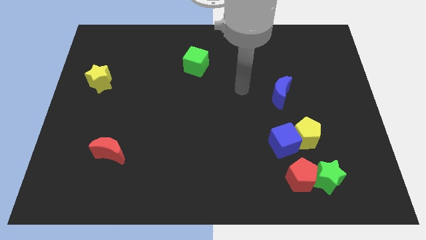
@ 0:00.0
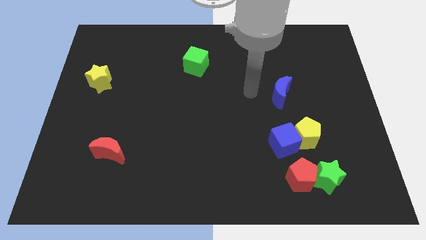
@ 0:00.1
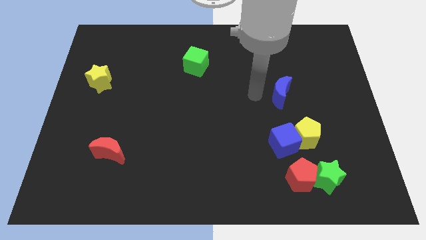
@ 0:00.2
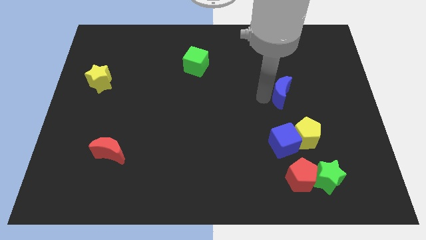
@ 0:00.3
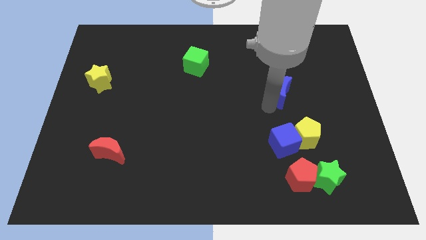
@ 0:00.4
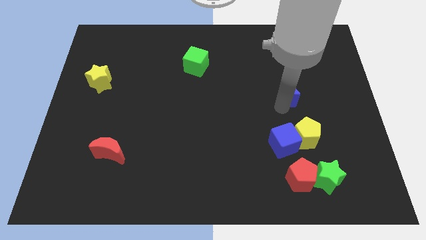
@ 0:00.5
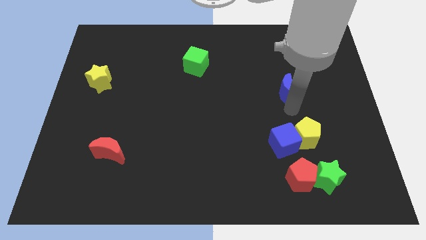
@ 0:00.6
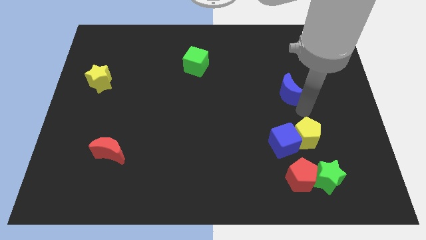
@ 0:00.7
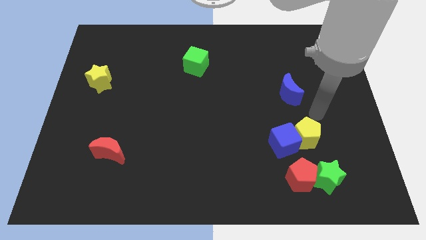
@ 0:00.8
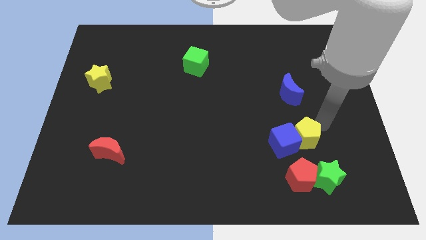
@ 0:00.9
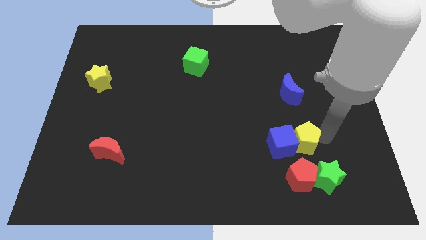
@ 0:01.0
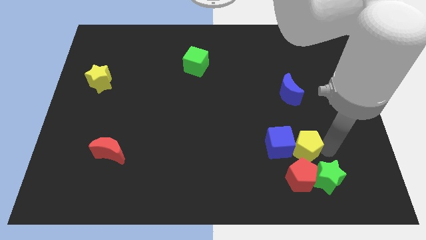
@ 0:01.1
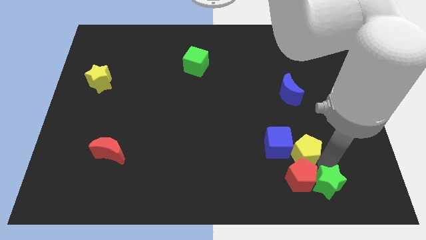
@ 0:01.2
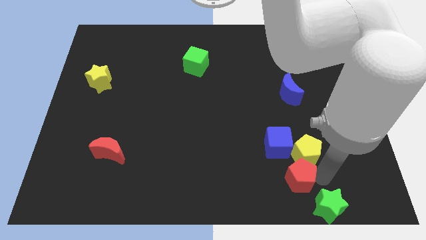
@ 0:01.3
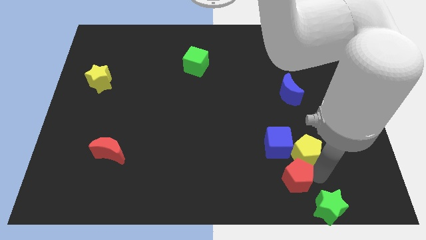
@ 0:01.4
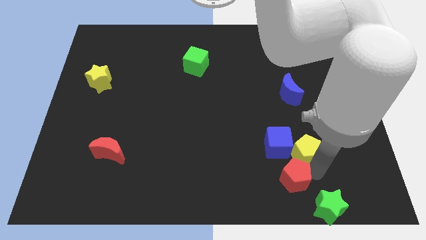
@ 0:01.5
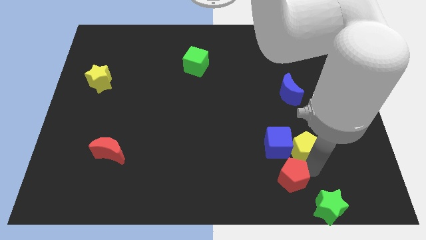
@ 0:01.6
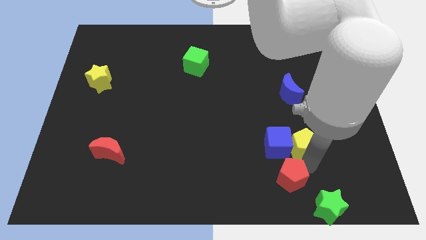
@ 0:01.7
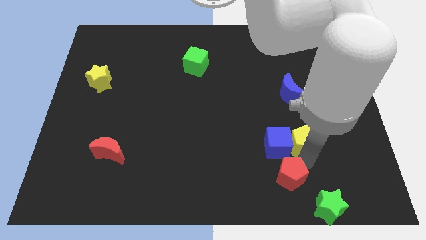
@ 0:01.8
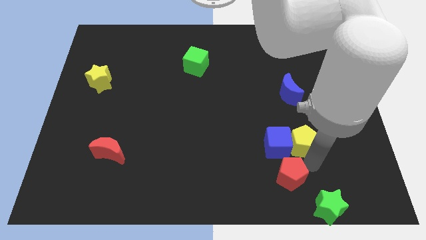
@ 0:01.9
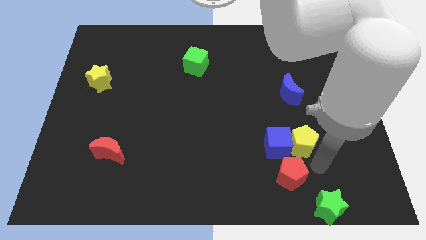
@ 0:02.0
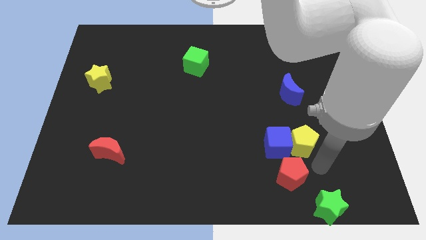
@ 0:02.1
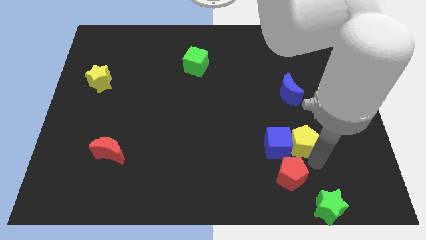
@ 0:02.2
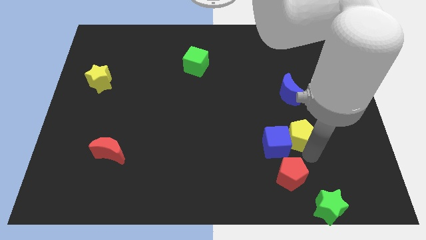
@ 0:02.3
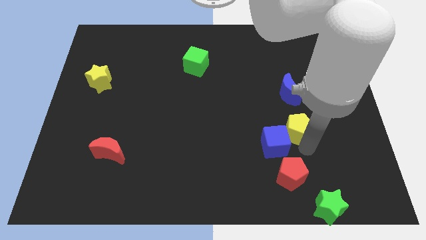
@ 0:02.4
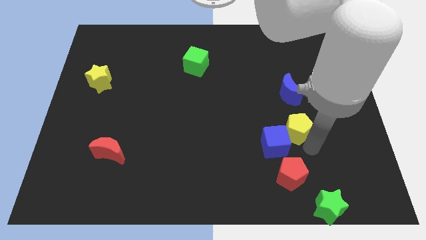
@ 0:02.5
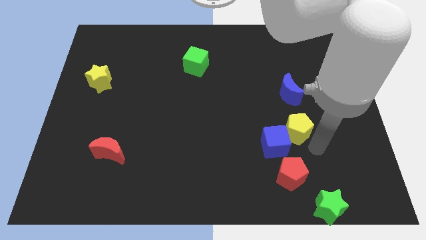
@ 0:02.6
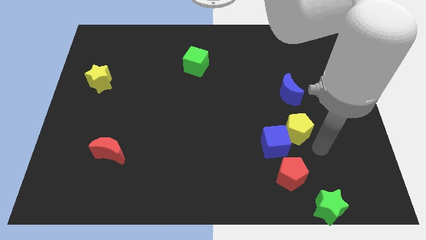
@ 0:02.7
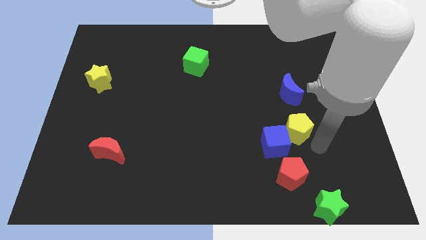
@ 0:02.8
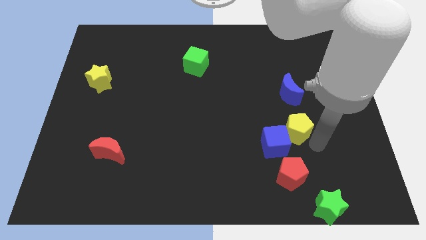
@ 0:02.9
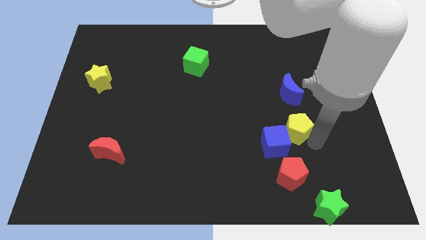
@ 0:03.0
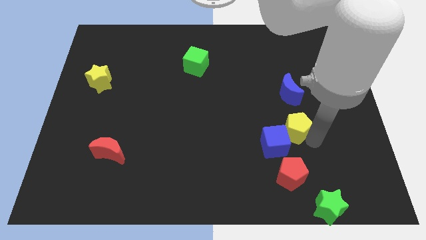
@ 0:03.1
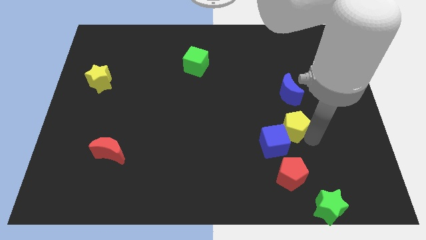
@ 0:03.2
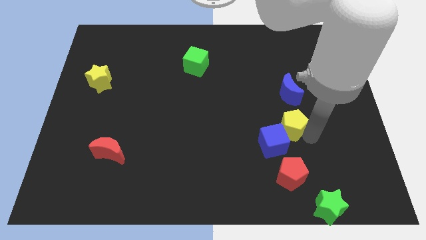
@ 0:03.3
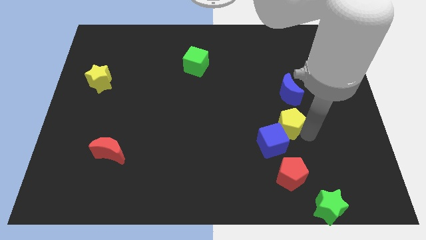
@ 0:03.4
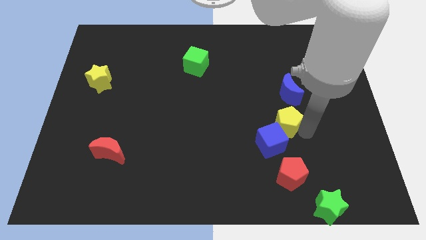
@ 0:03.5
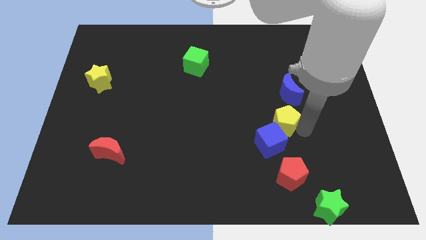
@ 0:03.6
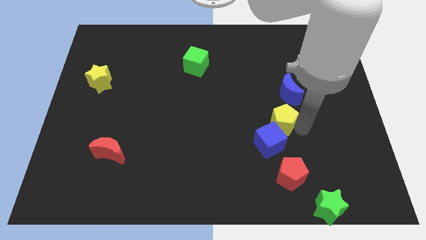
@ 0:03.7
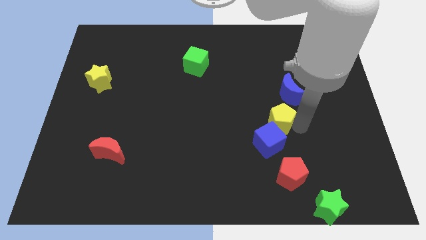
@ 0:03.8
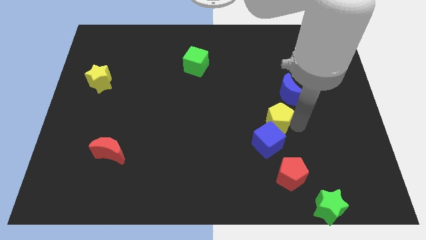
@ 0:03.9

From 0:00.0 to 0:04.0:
slide the yellow pentagon a little diagonally up and to the left

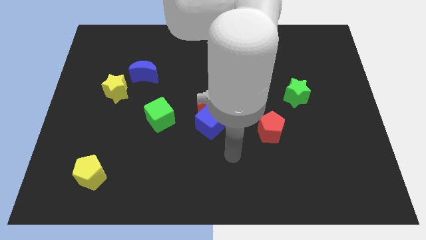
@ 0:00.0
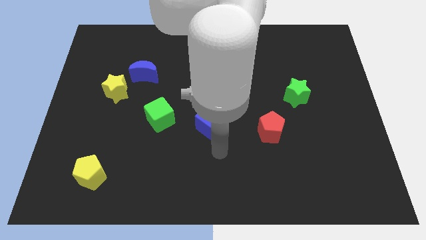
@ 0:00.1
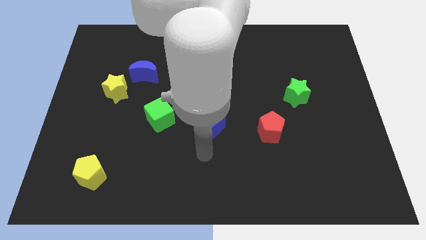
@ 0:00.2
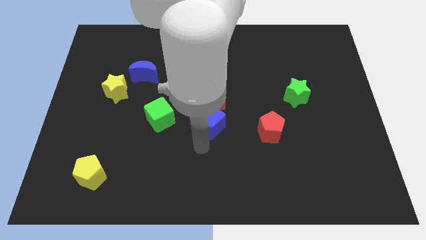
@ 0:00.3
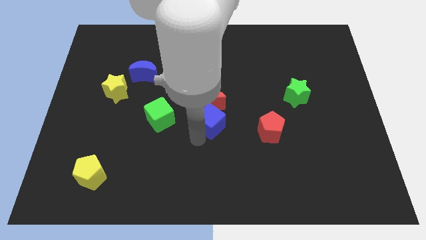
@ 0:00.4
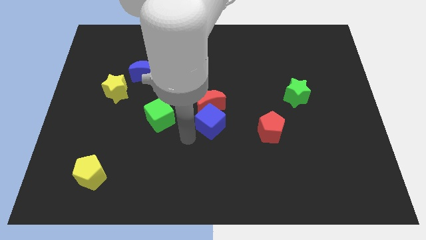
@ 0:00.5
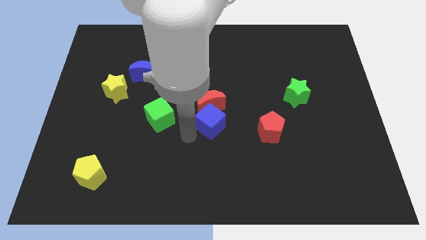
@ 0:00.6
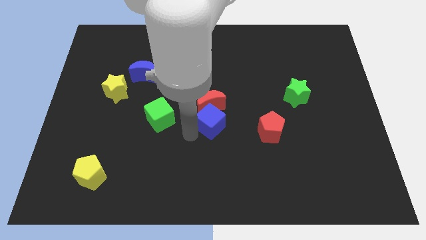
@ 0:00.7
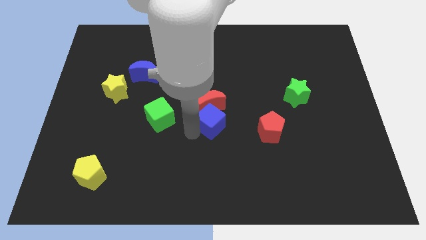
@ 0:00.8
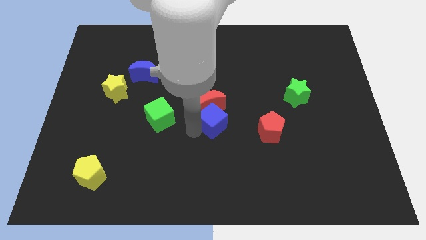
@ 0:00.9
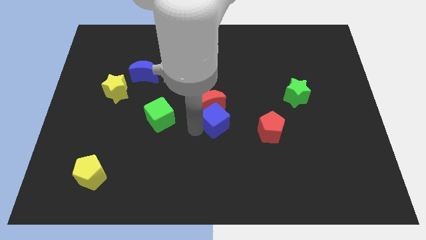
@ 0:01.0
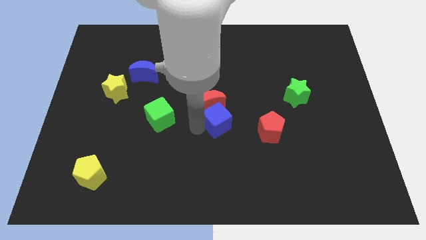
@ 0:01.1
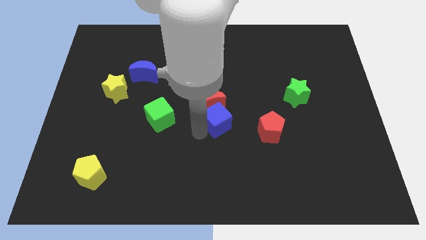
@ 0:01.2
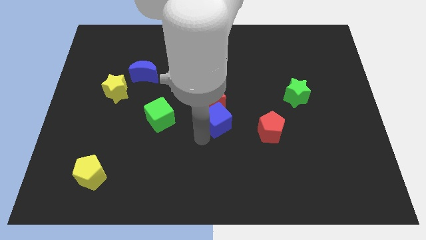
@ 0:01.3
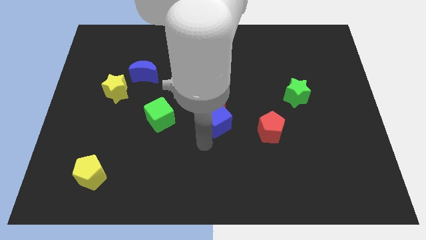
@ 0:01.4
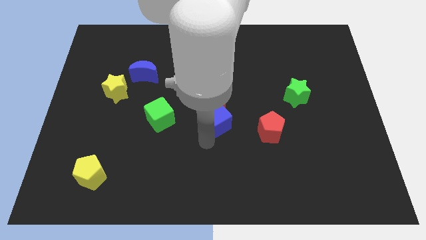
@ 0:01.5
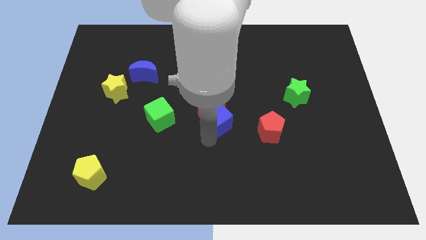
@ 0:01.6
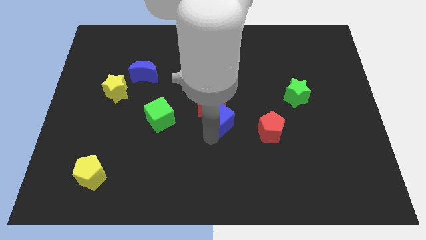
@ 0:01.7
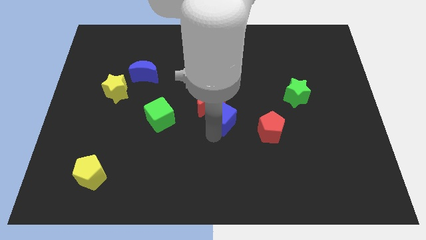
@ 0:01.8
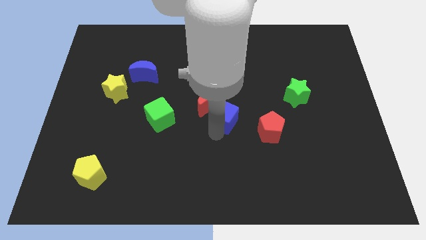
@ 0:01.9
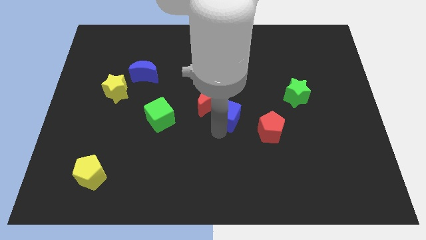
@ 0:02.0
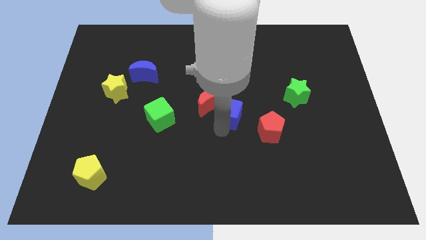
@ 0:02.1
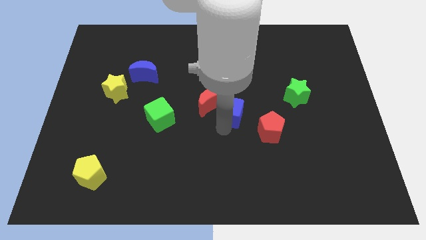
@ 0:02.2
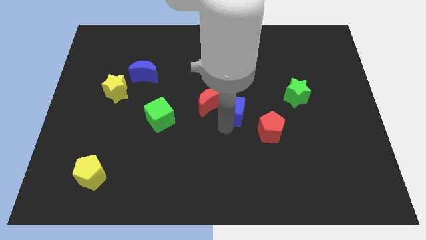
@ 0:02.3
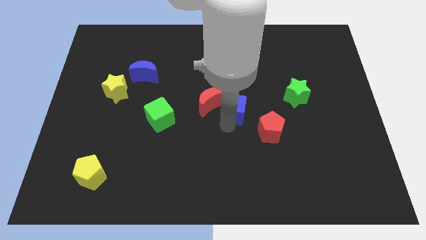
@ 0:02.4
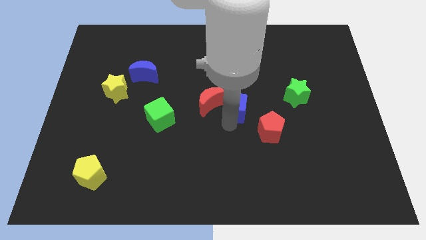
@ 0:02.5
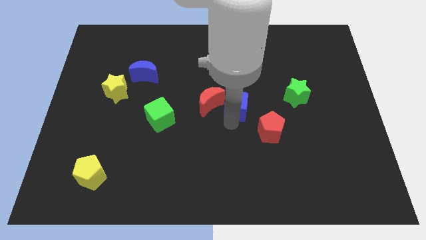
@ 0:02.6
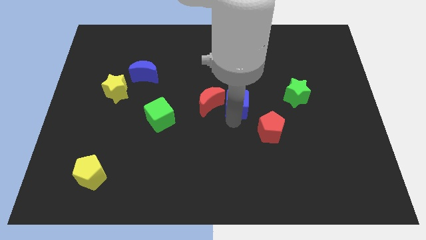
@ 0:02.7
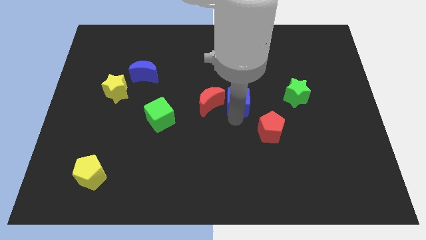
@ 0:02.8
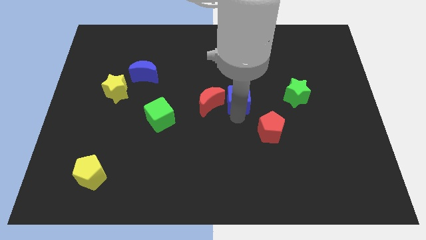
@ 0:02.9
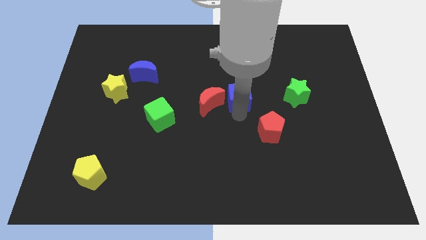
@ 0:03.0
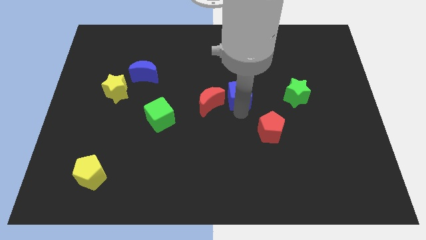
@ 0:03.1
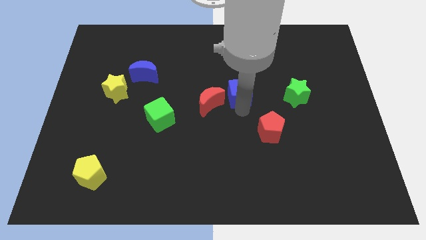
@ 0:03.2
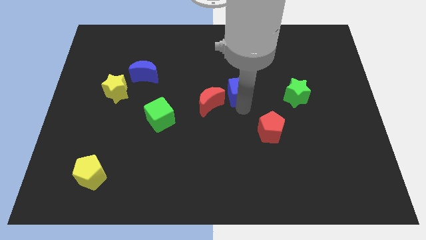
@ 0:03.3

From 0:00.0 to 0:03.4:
push the blue cube upwards somewhat

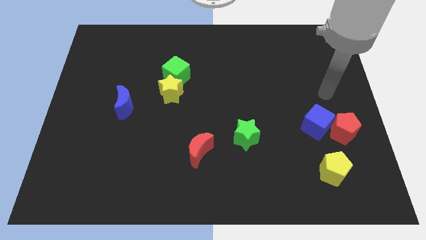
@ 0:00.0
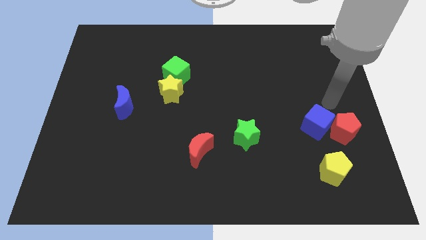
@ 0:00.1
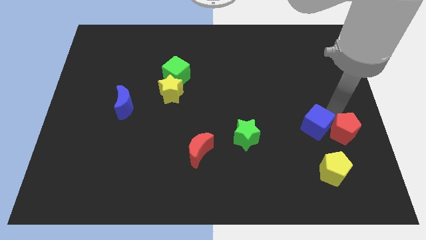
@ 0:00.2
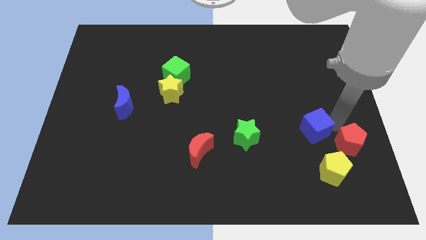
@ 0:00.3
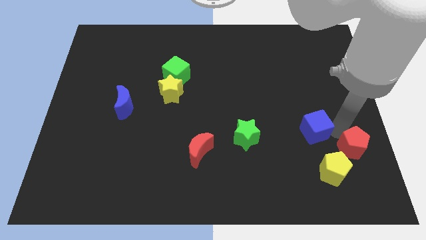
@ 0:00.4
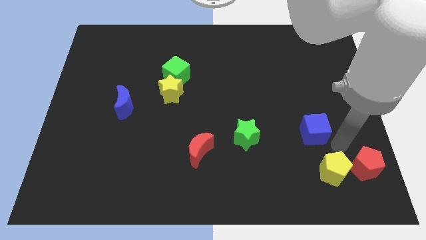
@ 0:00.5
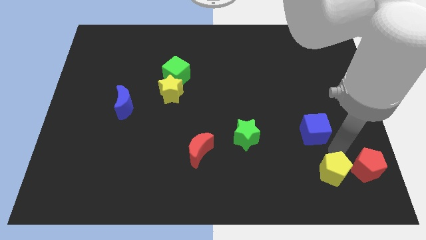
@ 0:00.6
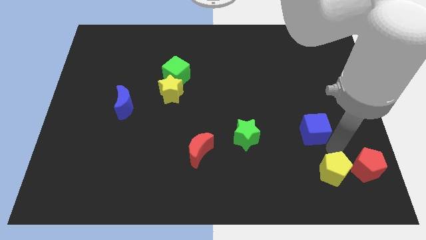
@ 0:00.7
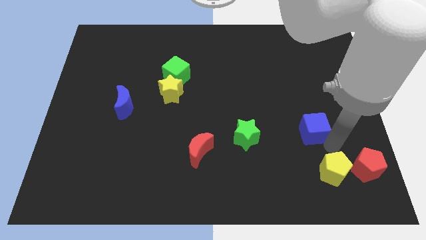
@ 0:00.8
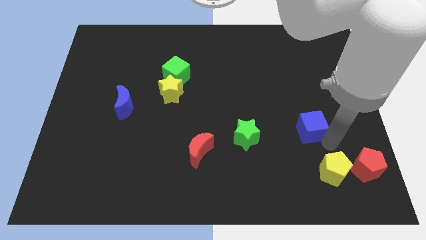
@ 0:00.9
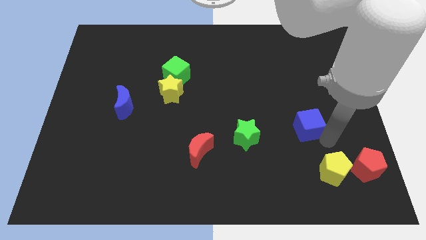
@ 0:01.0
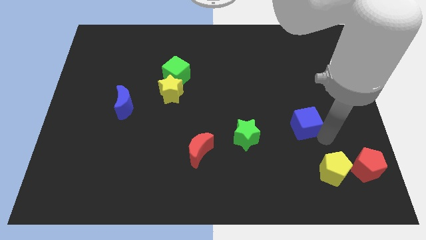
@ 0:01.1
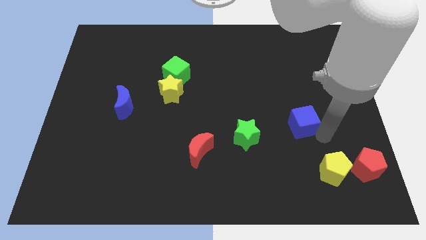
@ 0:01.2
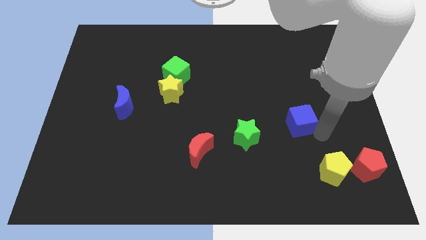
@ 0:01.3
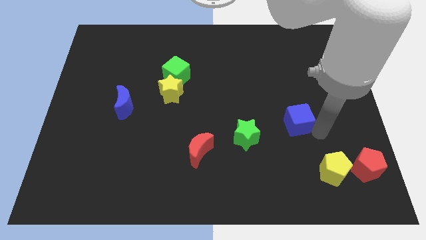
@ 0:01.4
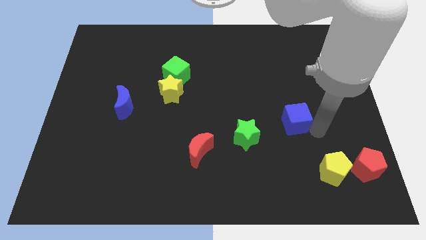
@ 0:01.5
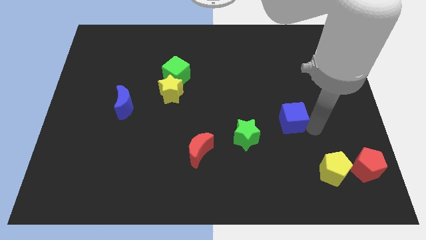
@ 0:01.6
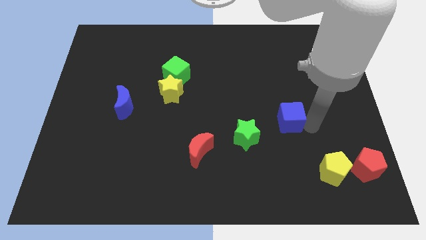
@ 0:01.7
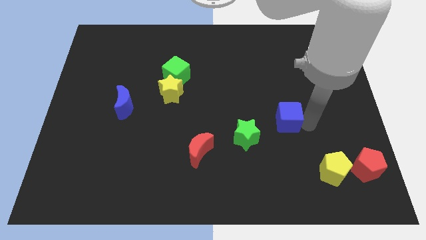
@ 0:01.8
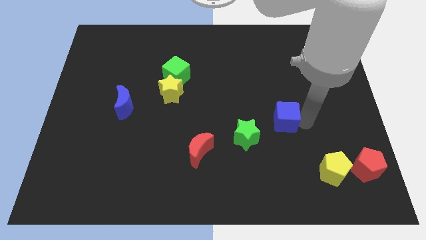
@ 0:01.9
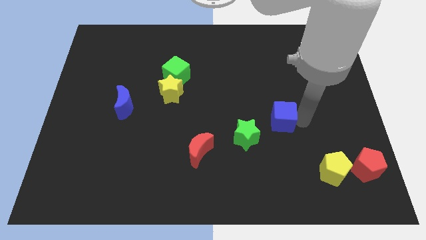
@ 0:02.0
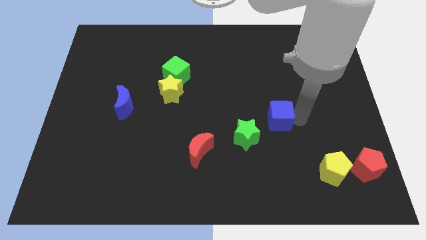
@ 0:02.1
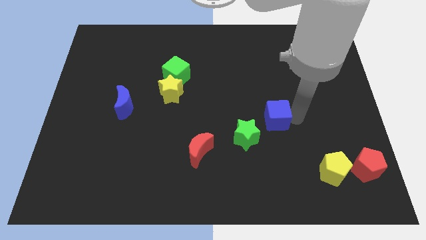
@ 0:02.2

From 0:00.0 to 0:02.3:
push the blue cube a little bit up and left
